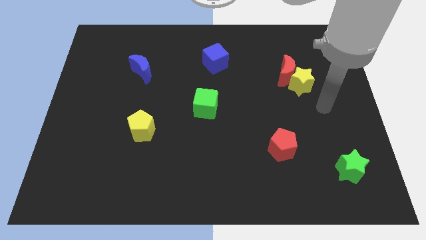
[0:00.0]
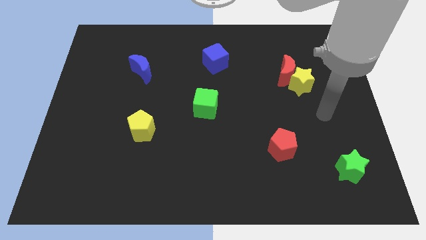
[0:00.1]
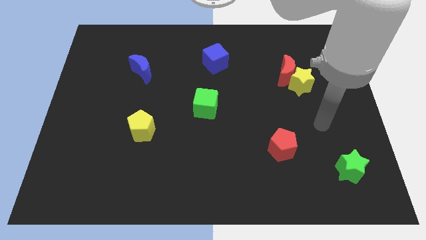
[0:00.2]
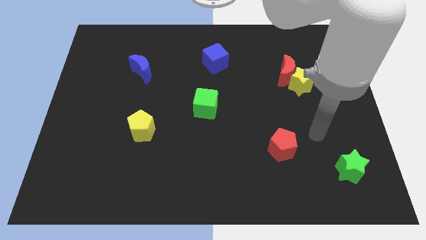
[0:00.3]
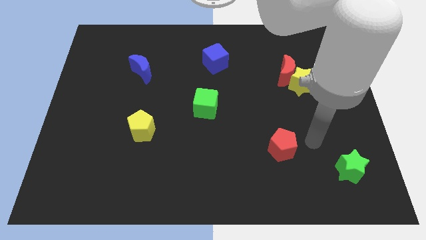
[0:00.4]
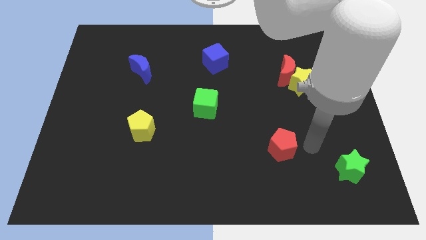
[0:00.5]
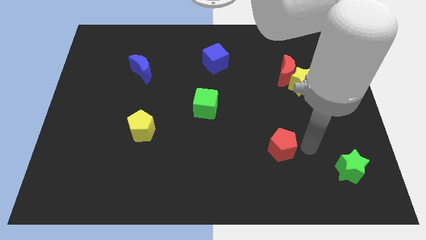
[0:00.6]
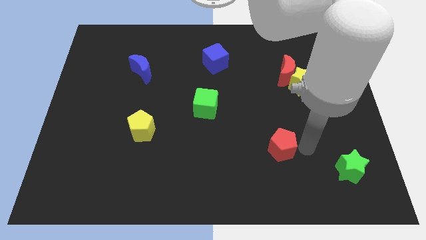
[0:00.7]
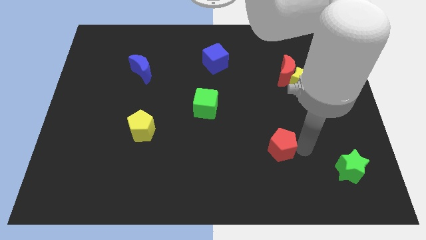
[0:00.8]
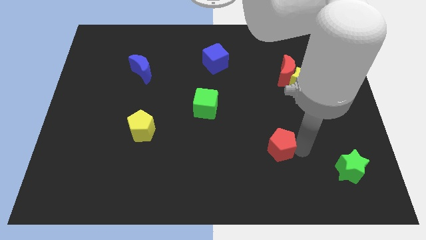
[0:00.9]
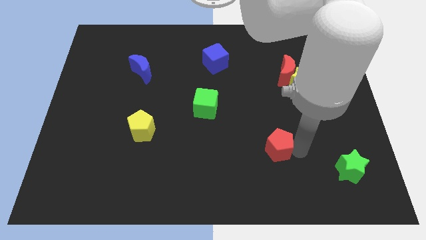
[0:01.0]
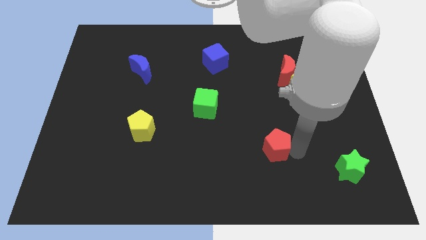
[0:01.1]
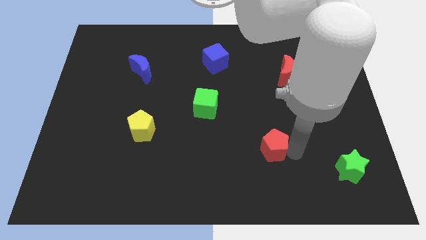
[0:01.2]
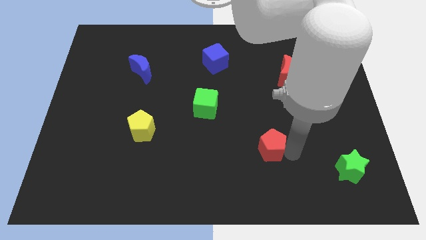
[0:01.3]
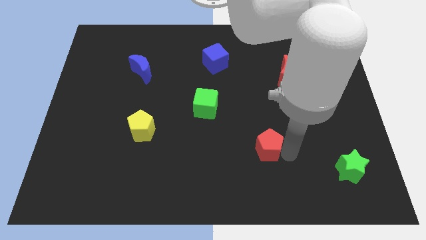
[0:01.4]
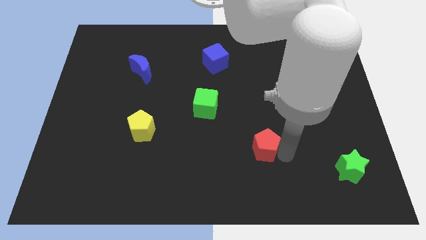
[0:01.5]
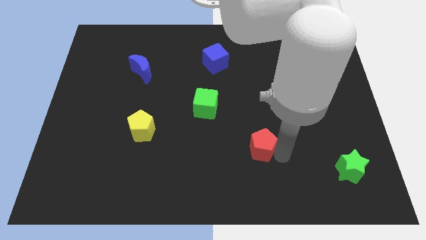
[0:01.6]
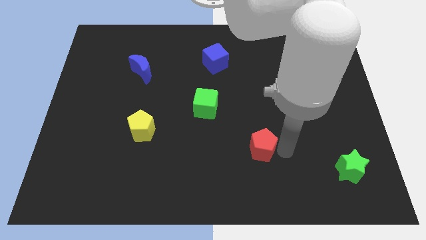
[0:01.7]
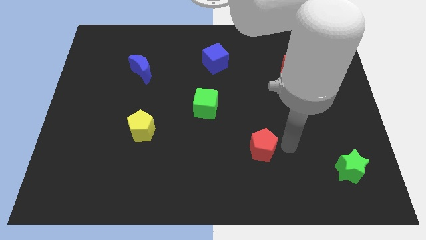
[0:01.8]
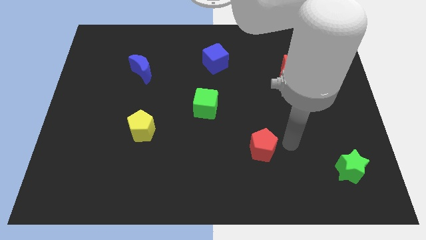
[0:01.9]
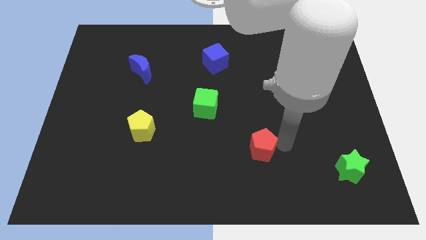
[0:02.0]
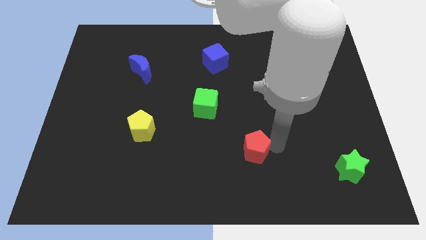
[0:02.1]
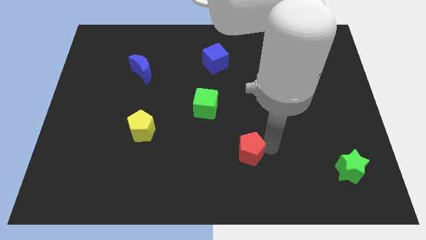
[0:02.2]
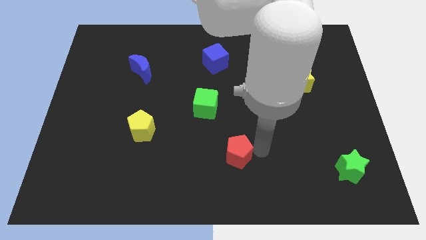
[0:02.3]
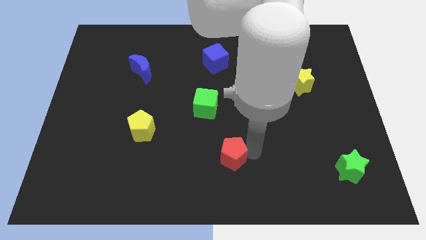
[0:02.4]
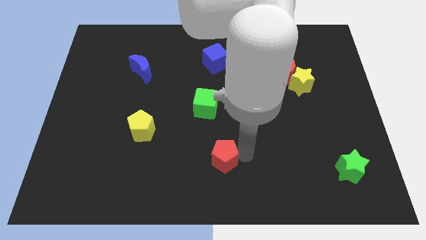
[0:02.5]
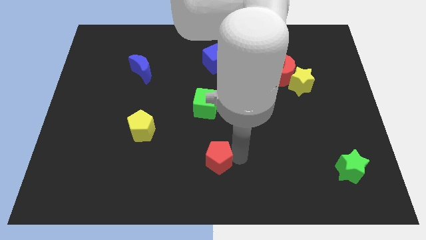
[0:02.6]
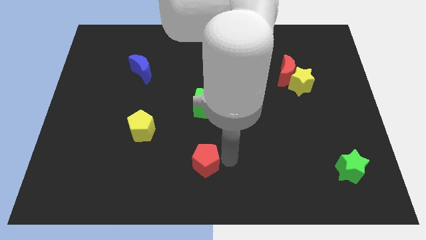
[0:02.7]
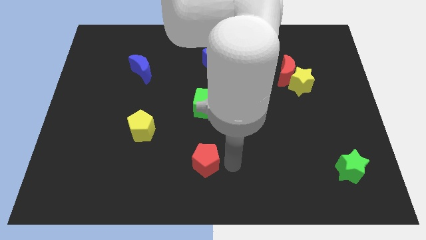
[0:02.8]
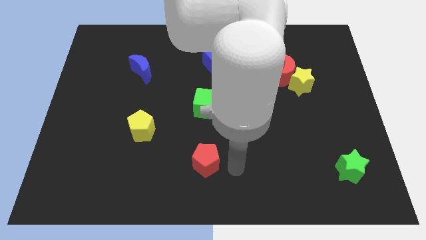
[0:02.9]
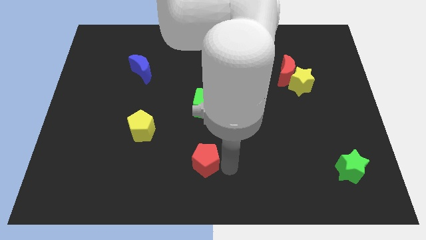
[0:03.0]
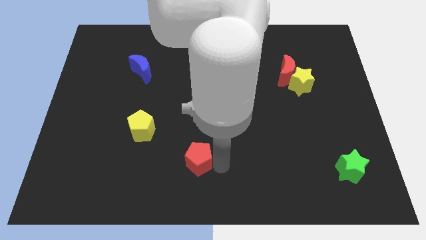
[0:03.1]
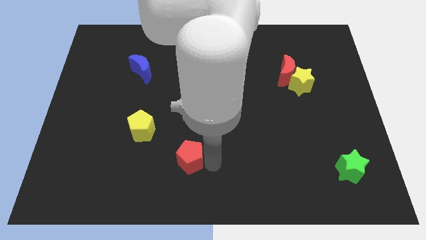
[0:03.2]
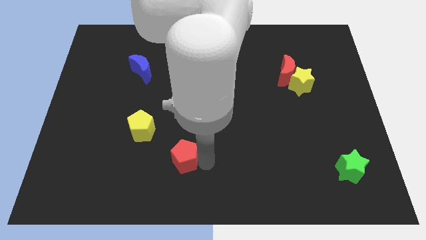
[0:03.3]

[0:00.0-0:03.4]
push the red pentagon to the left

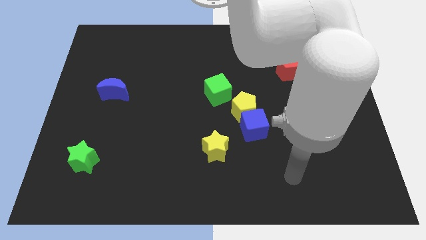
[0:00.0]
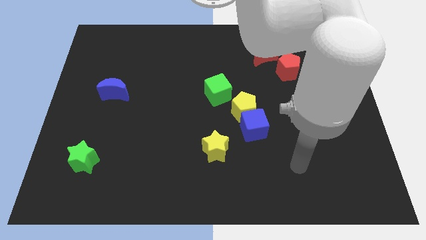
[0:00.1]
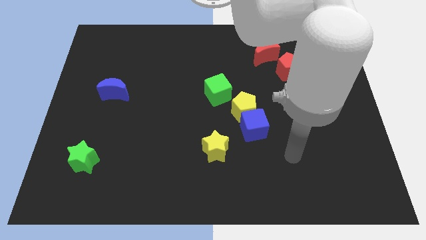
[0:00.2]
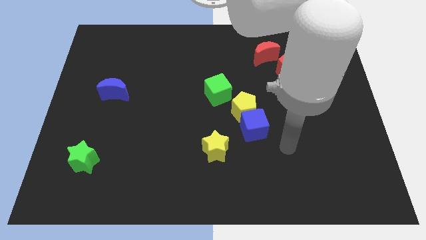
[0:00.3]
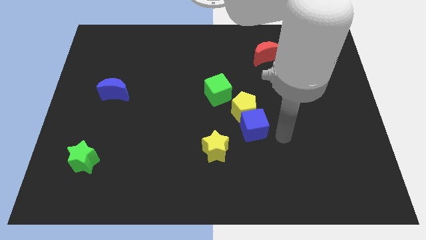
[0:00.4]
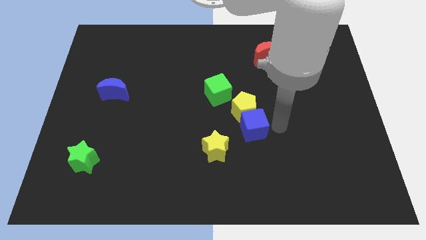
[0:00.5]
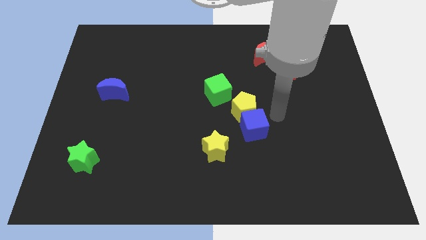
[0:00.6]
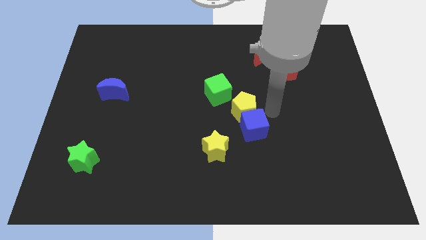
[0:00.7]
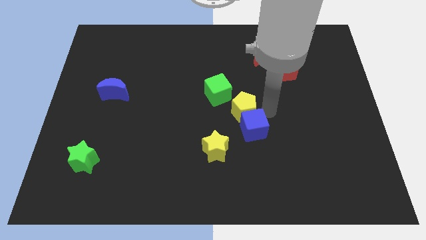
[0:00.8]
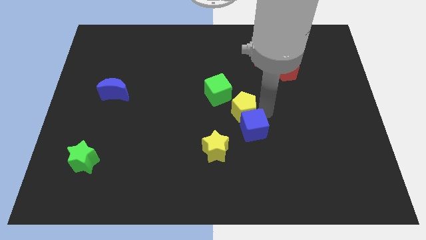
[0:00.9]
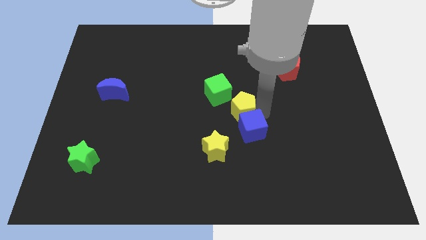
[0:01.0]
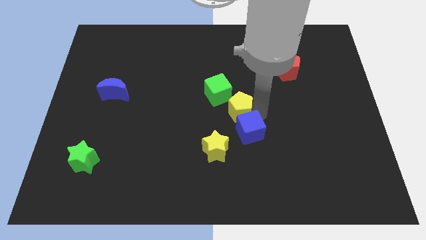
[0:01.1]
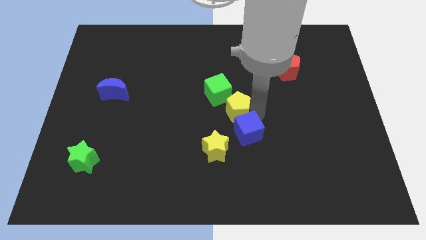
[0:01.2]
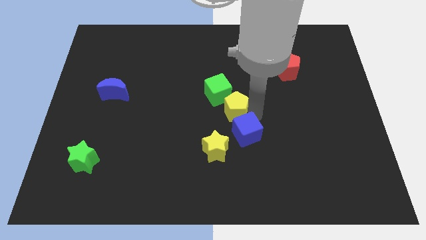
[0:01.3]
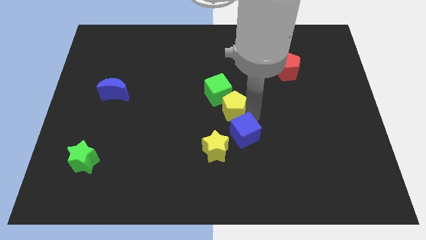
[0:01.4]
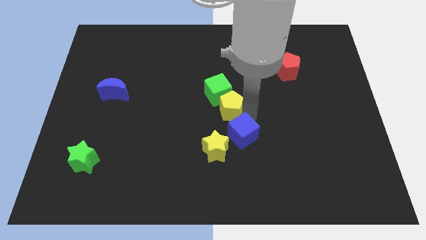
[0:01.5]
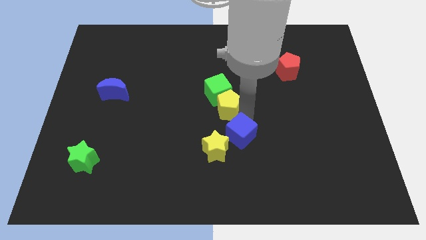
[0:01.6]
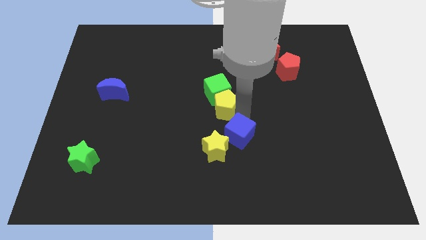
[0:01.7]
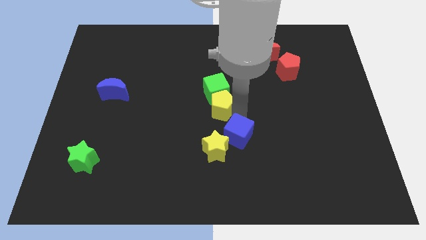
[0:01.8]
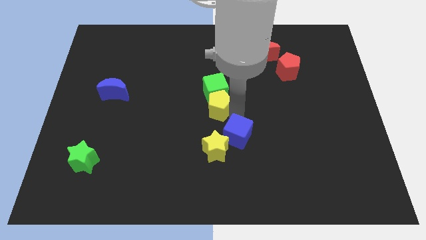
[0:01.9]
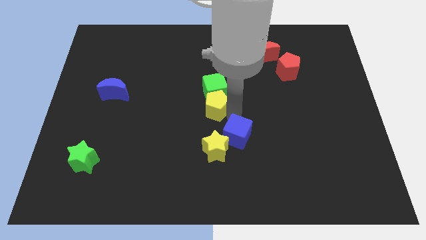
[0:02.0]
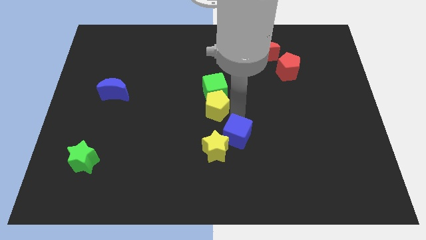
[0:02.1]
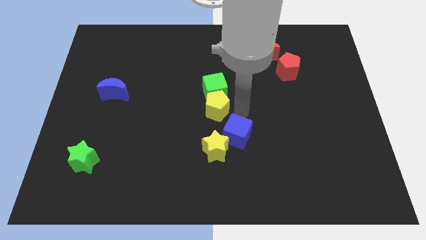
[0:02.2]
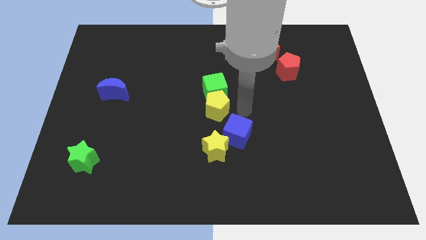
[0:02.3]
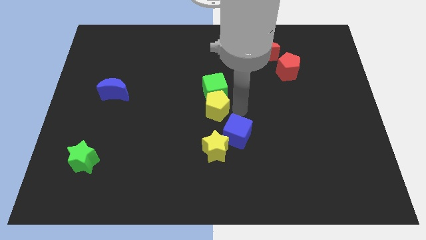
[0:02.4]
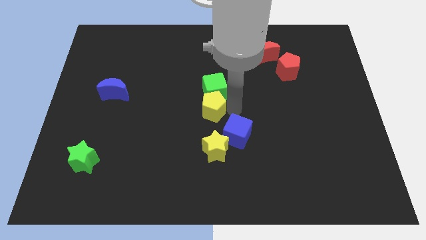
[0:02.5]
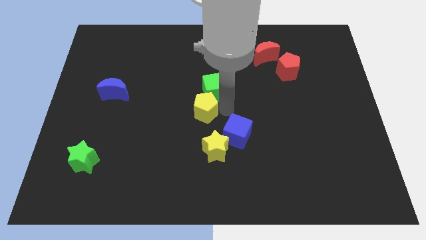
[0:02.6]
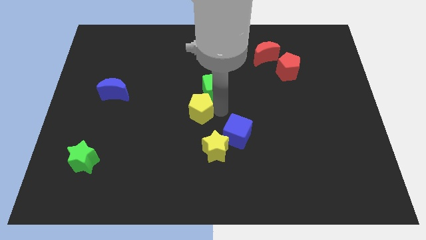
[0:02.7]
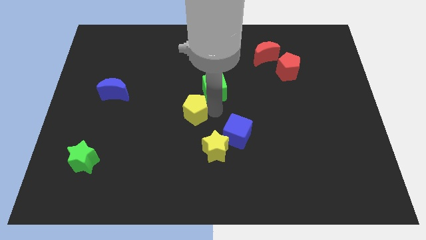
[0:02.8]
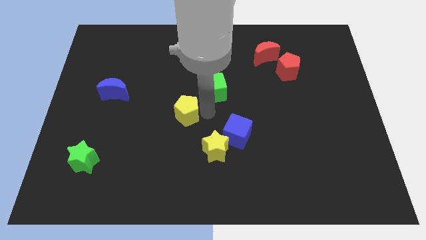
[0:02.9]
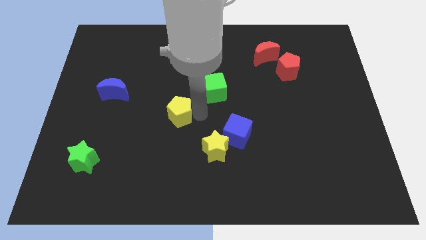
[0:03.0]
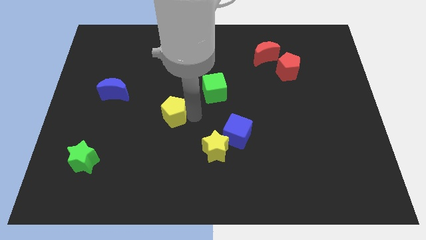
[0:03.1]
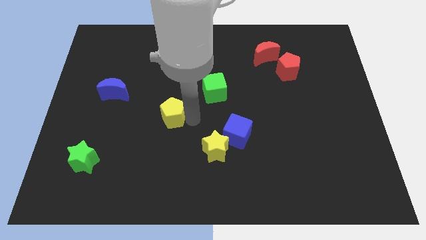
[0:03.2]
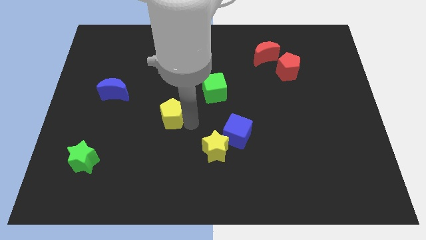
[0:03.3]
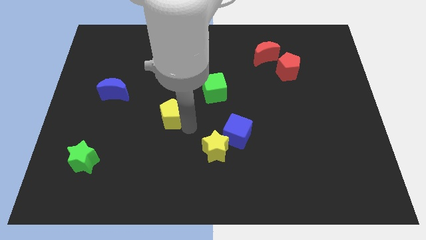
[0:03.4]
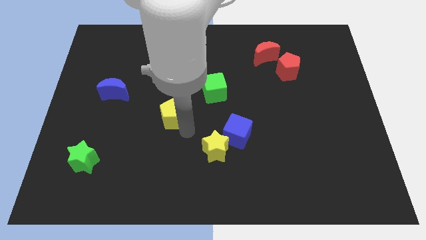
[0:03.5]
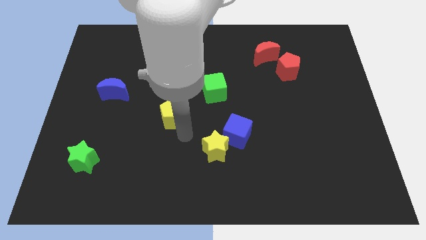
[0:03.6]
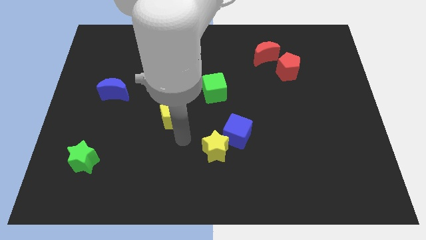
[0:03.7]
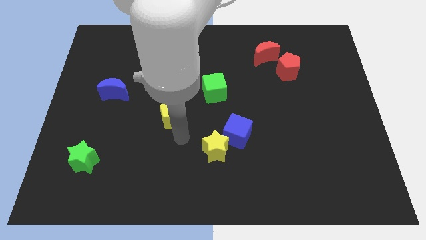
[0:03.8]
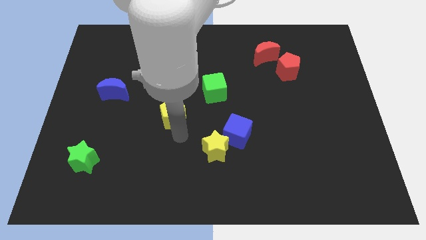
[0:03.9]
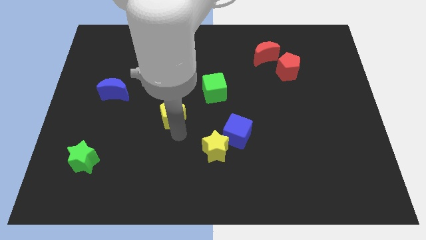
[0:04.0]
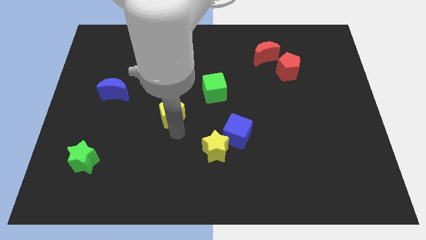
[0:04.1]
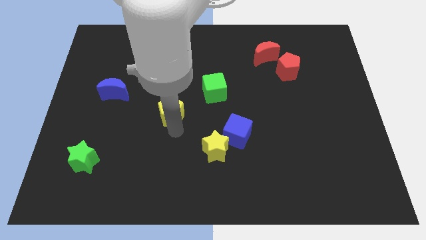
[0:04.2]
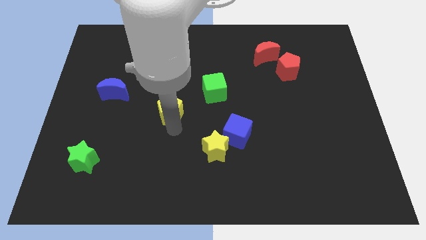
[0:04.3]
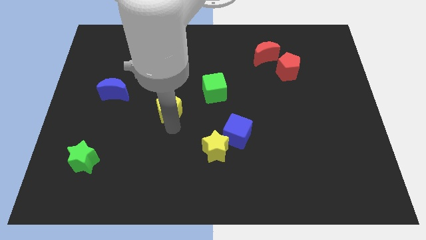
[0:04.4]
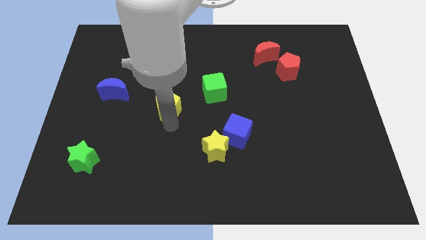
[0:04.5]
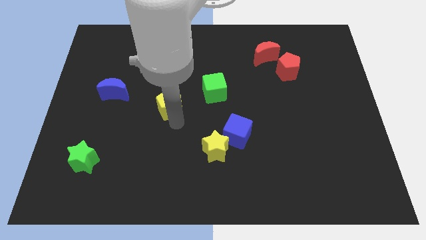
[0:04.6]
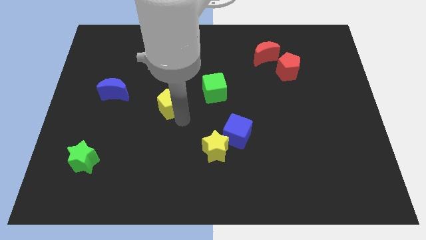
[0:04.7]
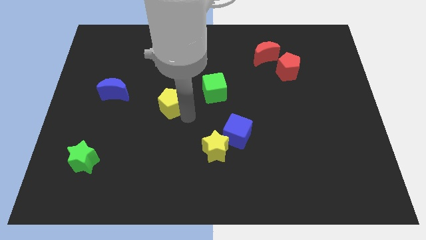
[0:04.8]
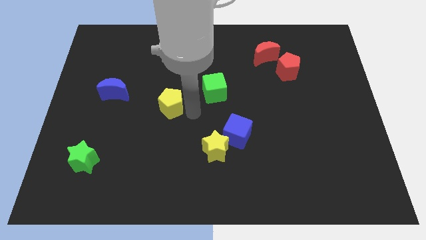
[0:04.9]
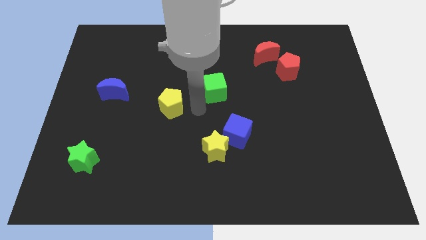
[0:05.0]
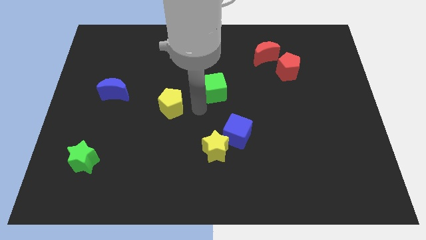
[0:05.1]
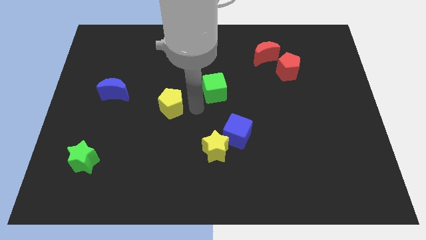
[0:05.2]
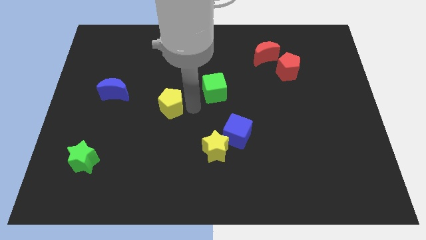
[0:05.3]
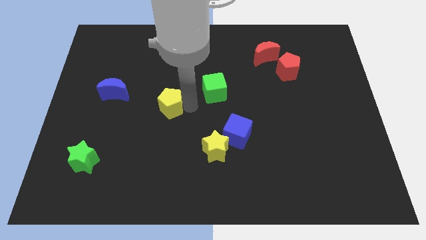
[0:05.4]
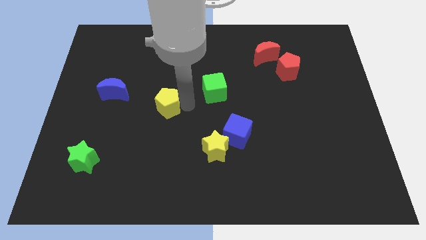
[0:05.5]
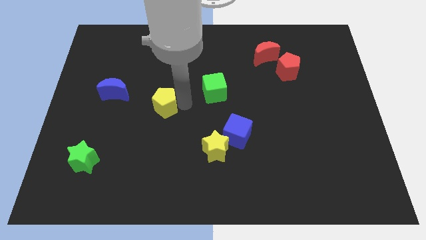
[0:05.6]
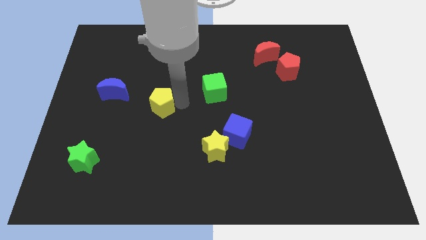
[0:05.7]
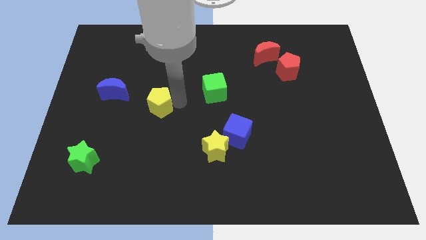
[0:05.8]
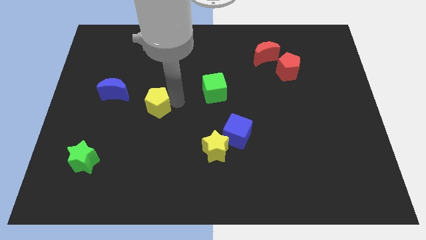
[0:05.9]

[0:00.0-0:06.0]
move the yellow pentagon left
